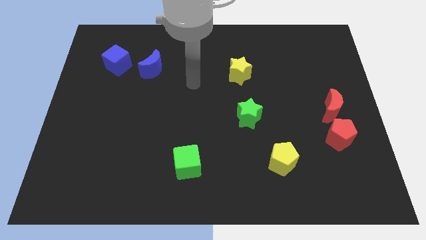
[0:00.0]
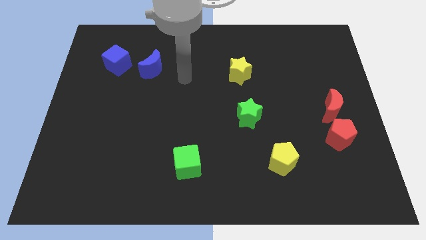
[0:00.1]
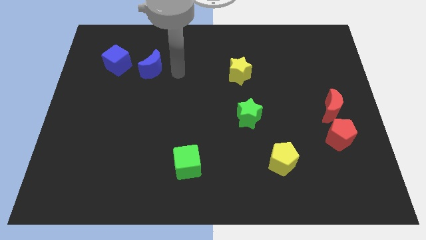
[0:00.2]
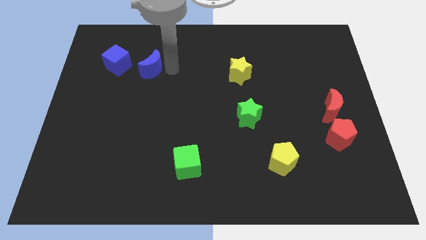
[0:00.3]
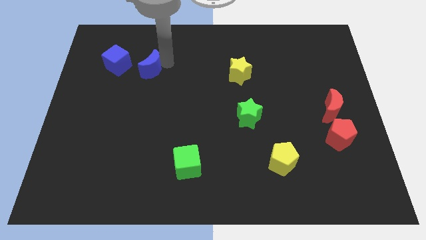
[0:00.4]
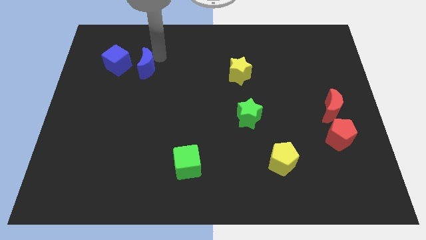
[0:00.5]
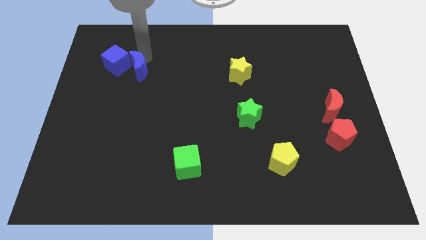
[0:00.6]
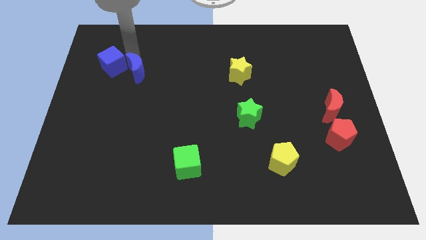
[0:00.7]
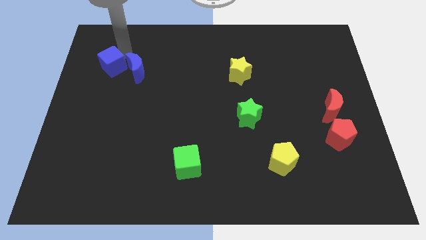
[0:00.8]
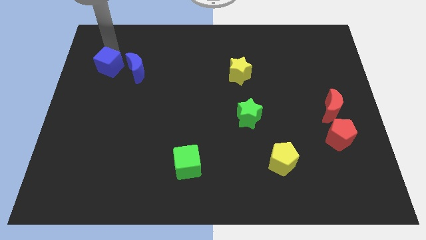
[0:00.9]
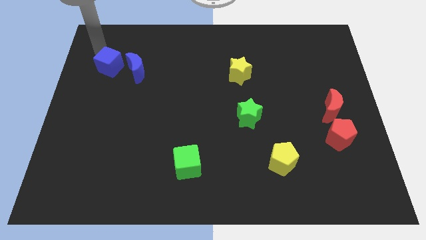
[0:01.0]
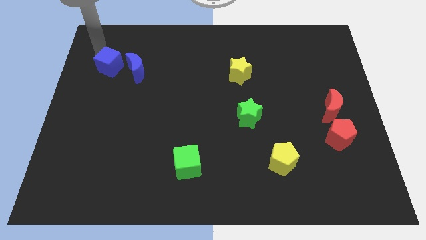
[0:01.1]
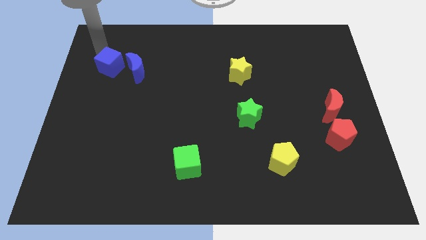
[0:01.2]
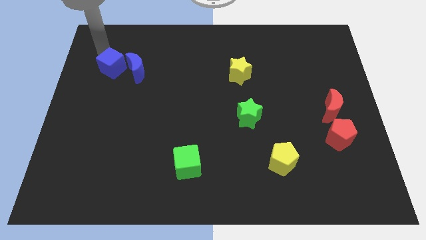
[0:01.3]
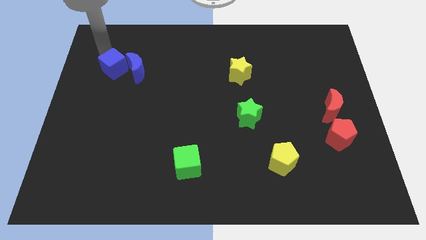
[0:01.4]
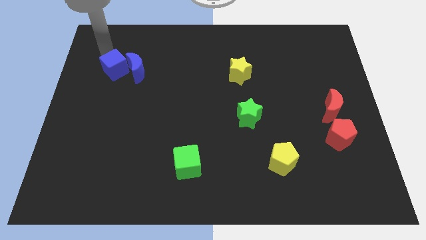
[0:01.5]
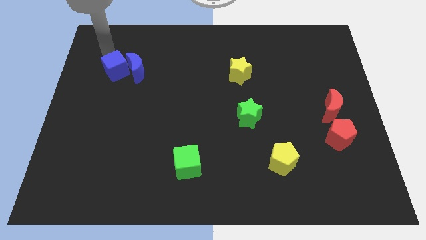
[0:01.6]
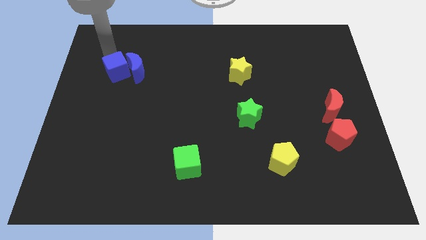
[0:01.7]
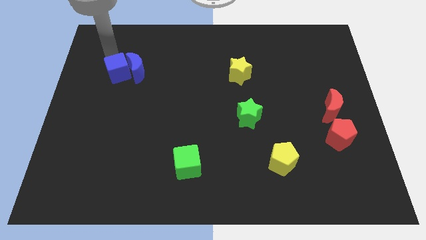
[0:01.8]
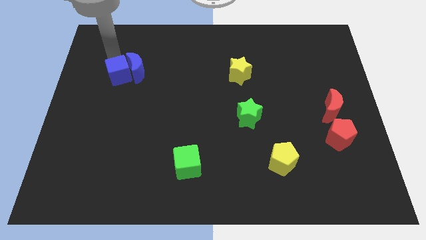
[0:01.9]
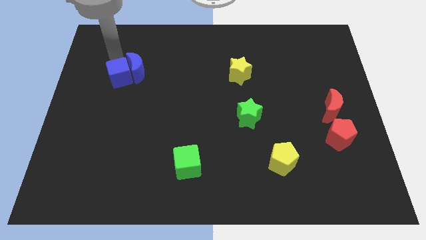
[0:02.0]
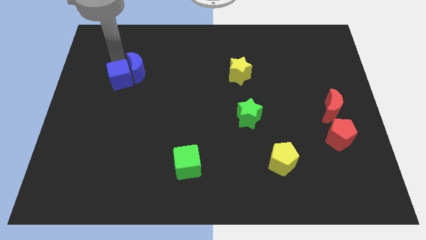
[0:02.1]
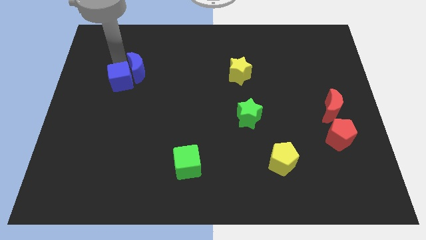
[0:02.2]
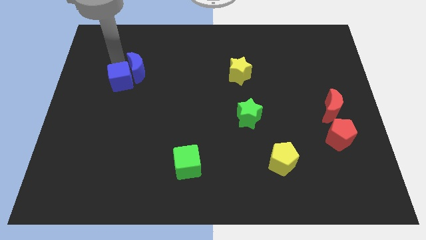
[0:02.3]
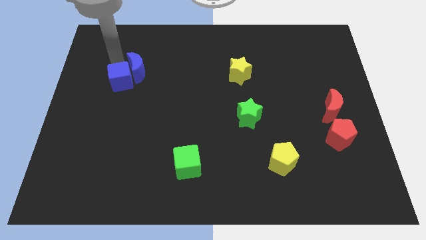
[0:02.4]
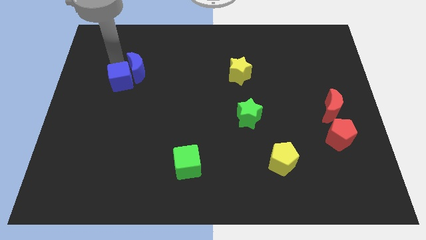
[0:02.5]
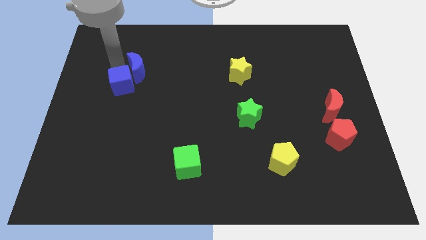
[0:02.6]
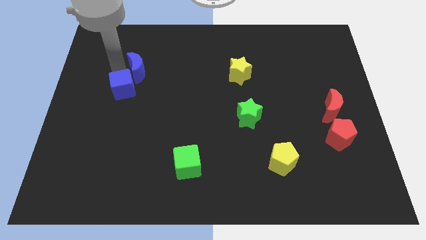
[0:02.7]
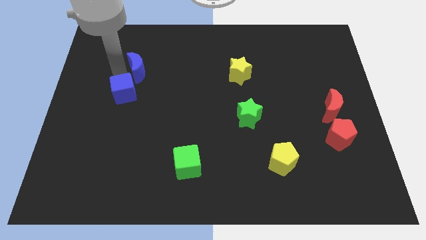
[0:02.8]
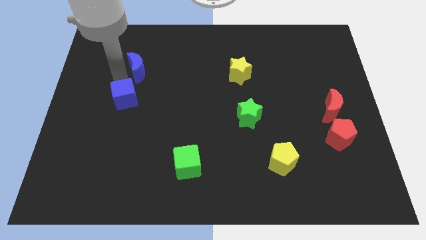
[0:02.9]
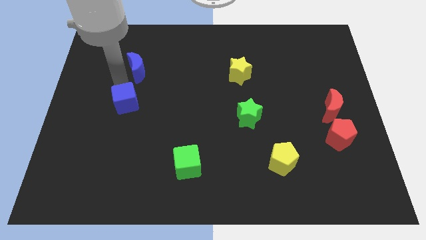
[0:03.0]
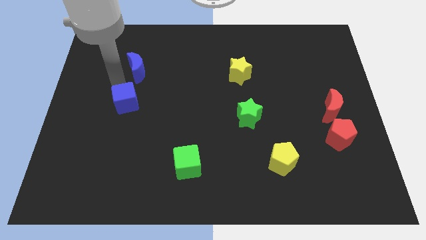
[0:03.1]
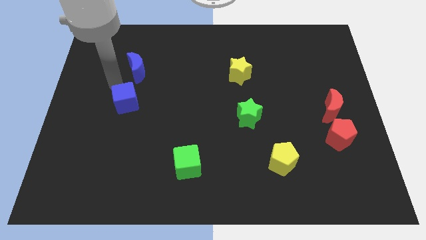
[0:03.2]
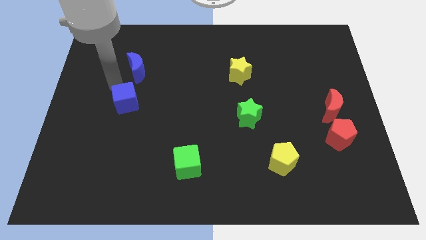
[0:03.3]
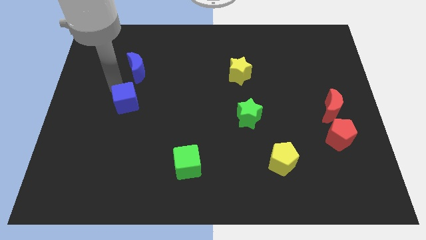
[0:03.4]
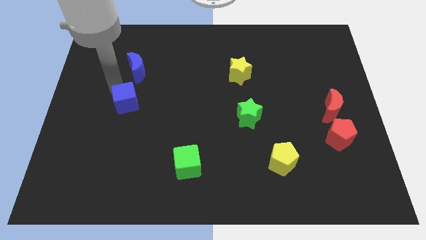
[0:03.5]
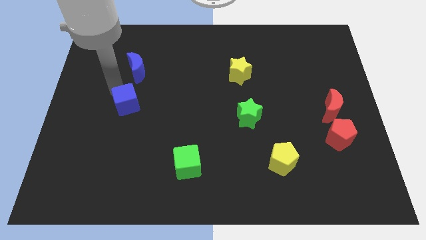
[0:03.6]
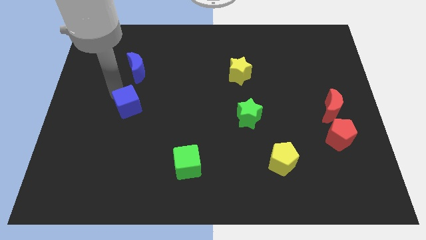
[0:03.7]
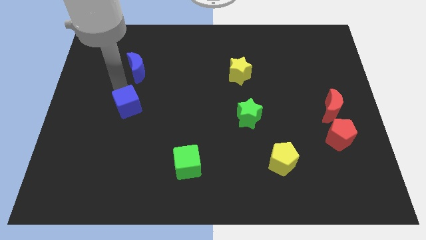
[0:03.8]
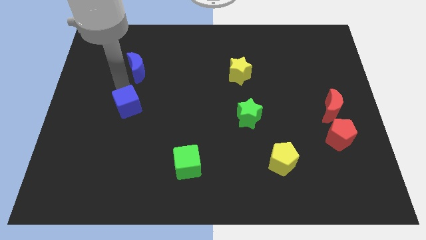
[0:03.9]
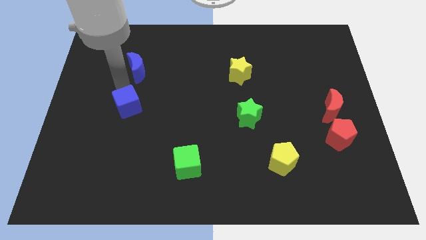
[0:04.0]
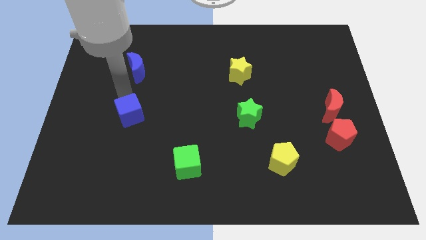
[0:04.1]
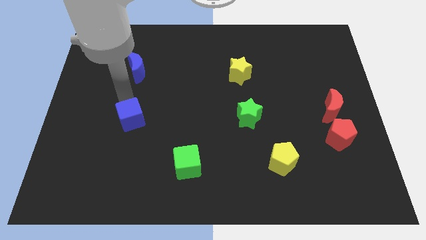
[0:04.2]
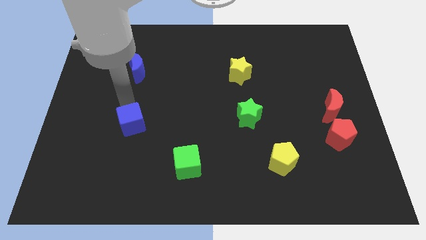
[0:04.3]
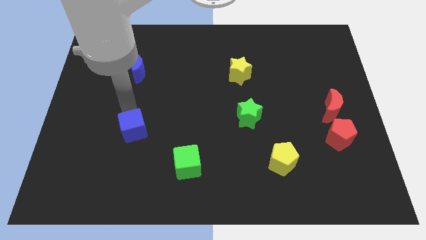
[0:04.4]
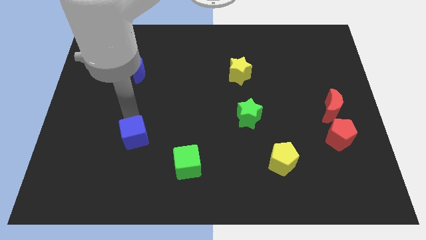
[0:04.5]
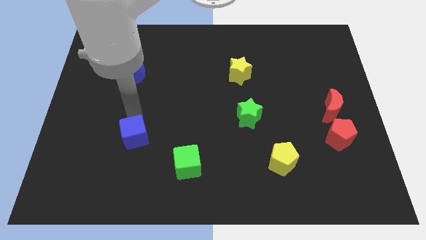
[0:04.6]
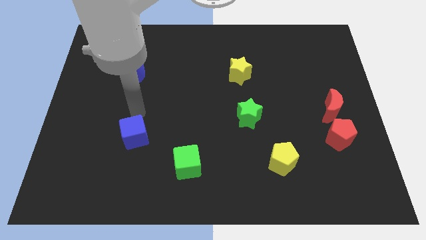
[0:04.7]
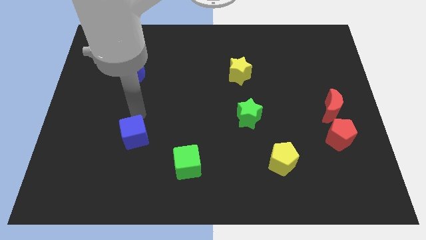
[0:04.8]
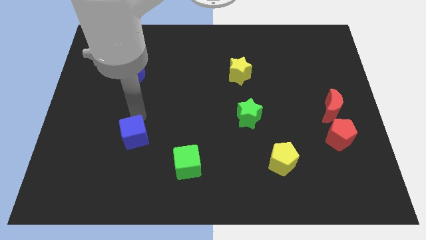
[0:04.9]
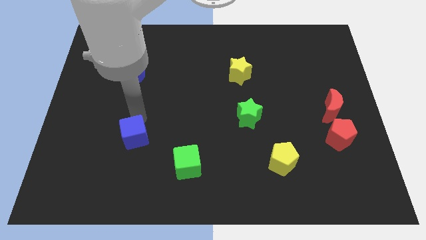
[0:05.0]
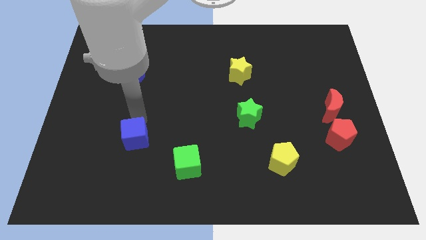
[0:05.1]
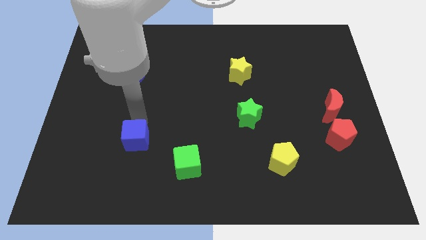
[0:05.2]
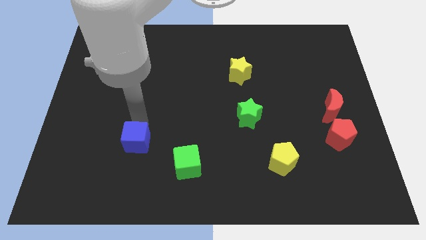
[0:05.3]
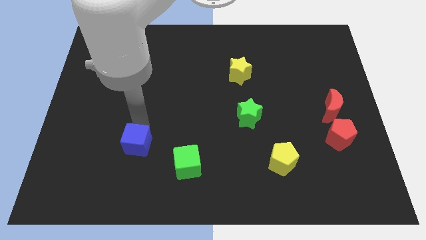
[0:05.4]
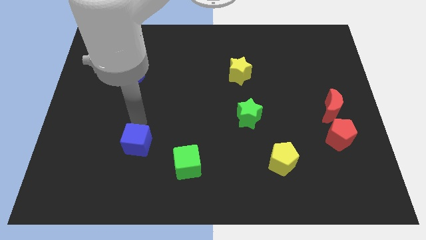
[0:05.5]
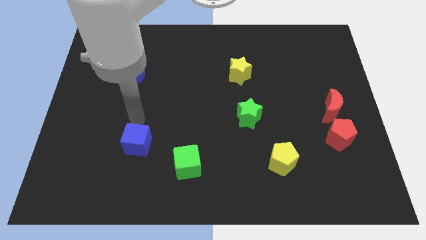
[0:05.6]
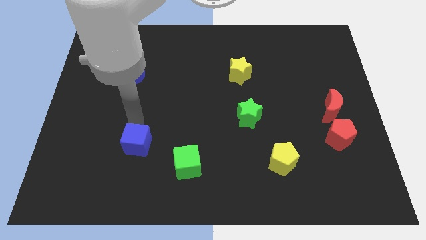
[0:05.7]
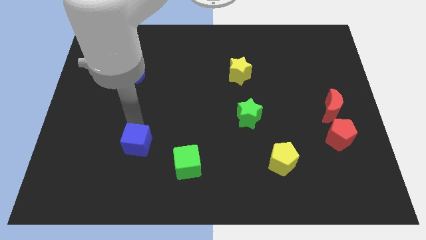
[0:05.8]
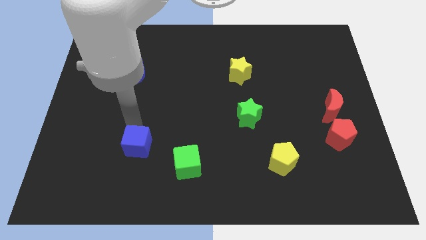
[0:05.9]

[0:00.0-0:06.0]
put the blue cube to the left side of the green cube

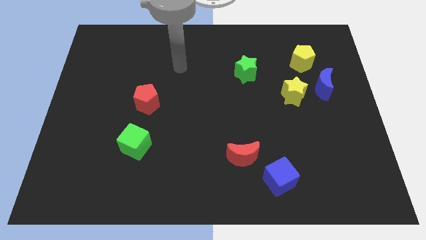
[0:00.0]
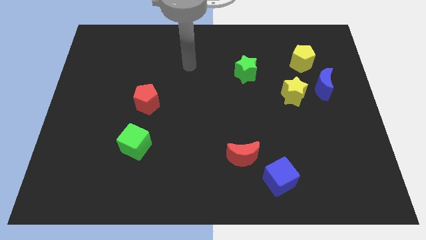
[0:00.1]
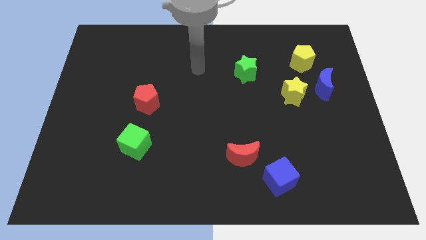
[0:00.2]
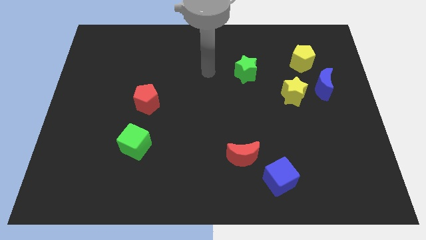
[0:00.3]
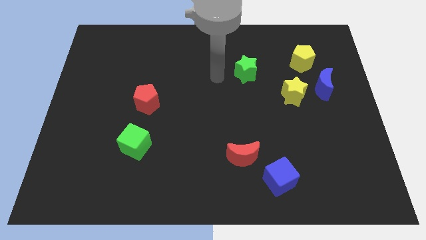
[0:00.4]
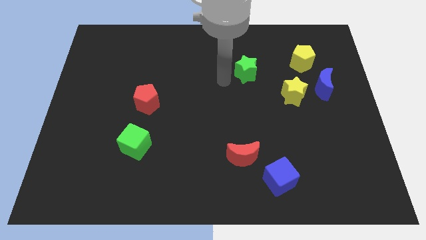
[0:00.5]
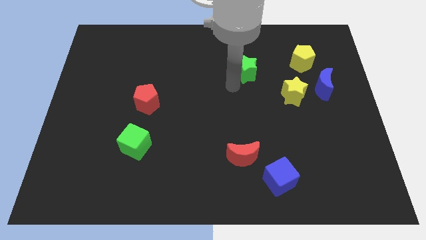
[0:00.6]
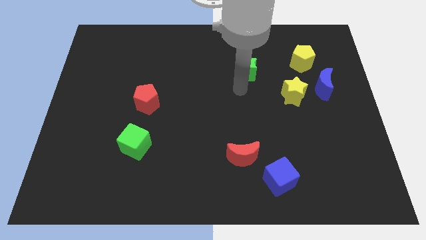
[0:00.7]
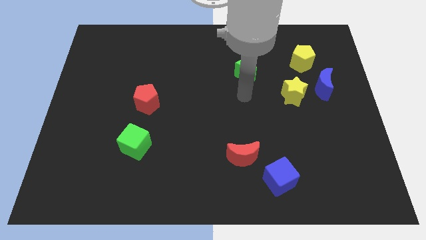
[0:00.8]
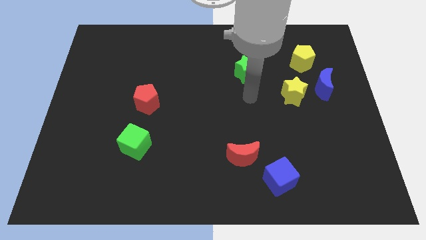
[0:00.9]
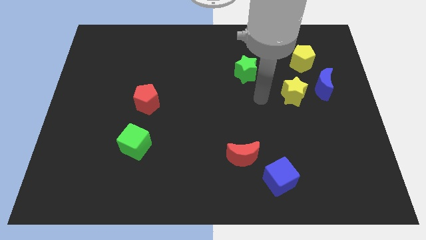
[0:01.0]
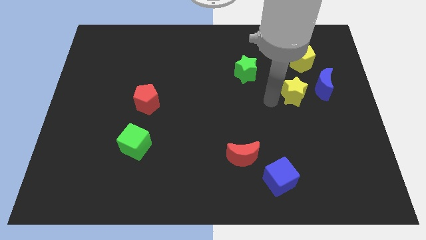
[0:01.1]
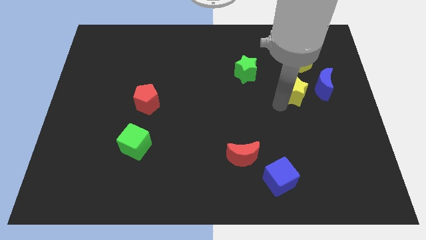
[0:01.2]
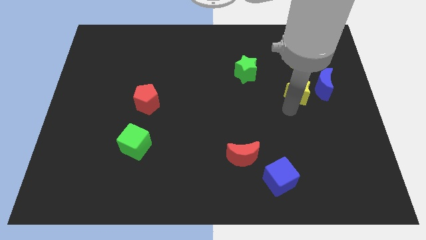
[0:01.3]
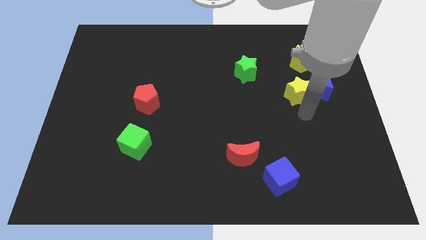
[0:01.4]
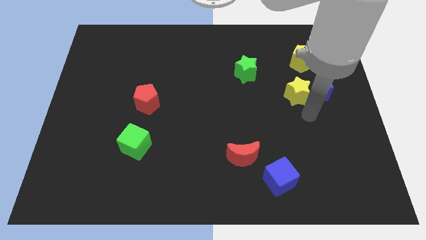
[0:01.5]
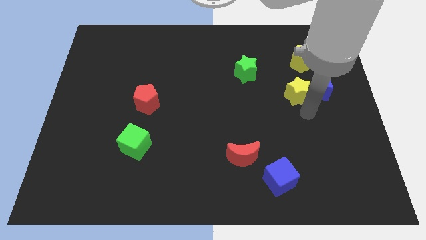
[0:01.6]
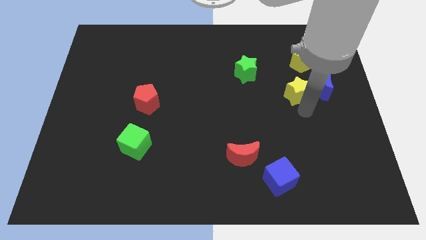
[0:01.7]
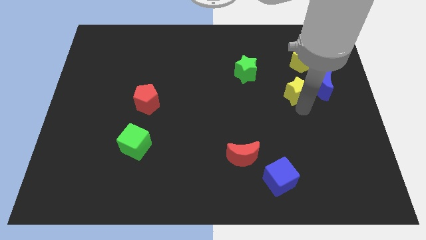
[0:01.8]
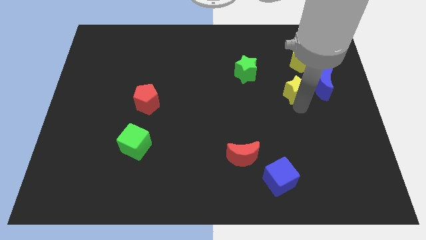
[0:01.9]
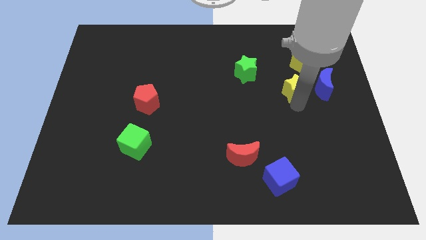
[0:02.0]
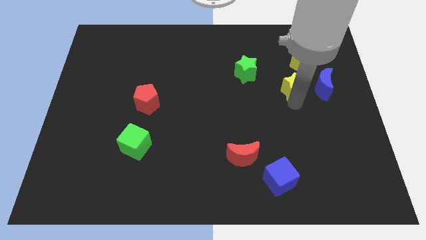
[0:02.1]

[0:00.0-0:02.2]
move the yellow star to the bottom left of the yellow pentagon
